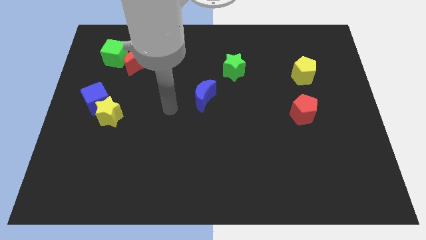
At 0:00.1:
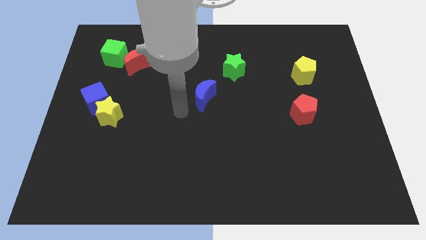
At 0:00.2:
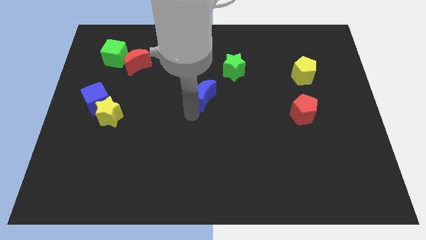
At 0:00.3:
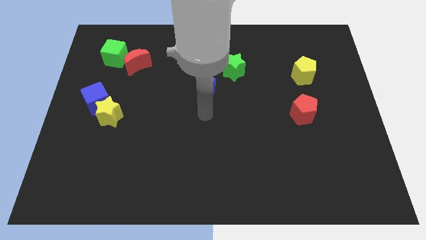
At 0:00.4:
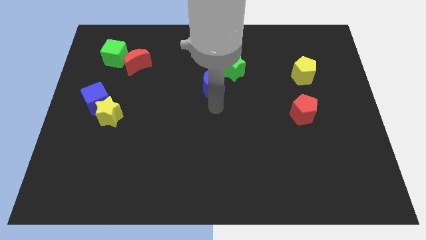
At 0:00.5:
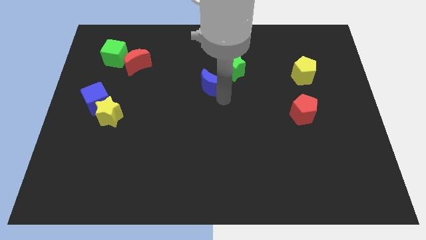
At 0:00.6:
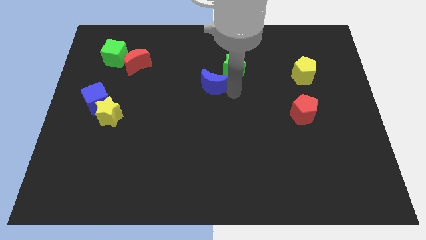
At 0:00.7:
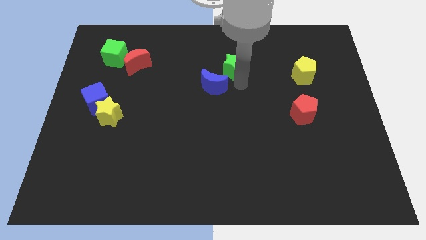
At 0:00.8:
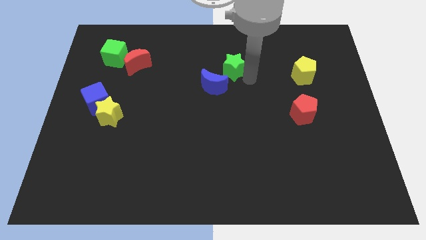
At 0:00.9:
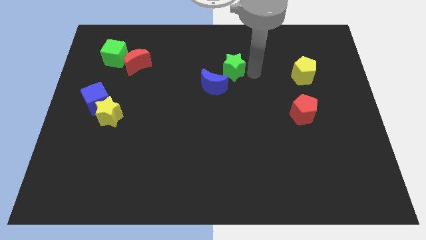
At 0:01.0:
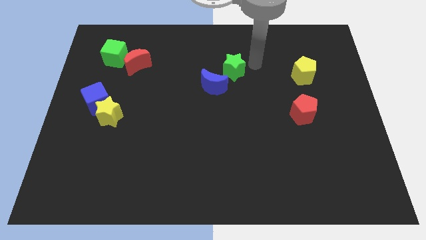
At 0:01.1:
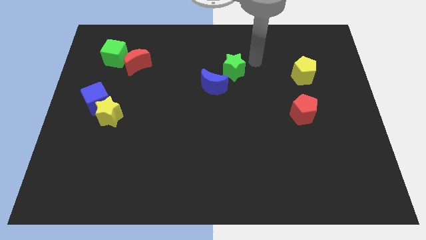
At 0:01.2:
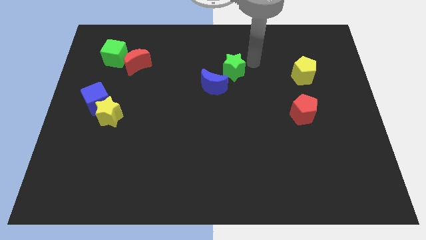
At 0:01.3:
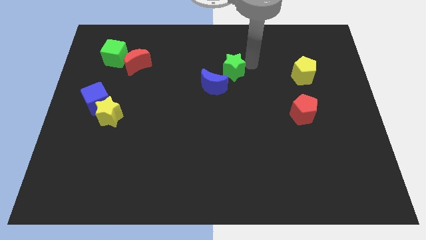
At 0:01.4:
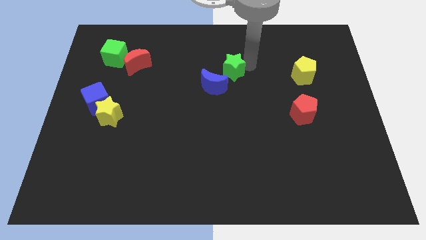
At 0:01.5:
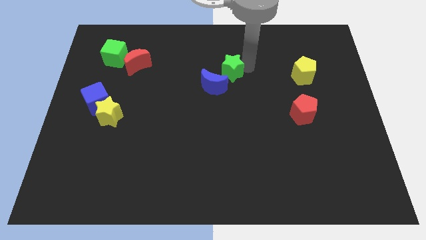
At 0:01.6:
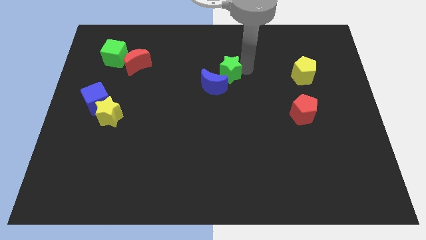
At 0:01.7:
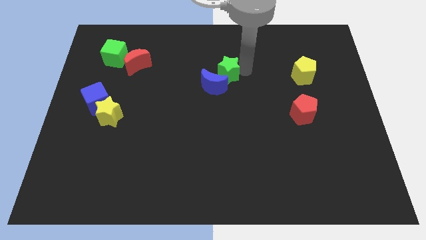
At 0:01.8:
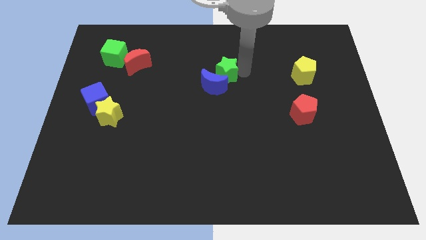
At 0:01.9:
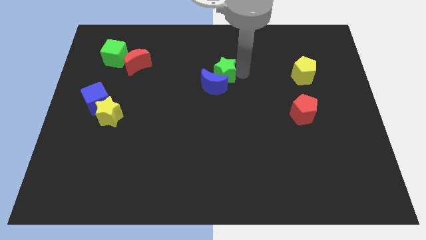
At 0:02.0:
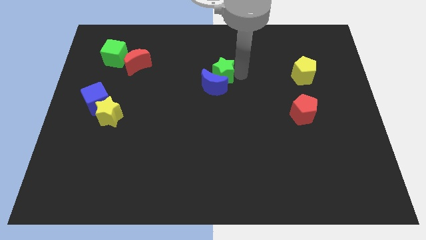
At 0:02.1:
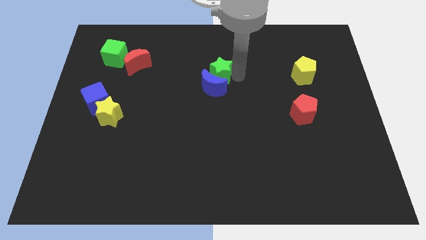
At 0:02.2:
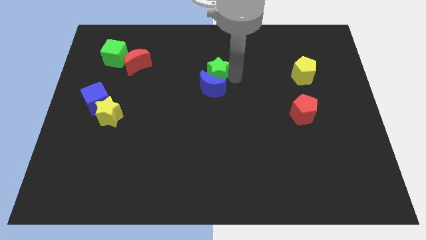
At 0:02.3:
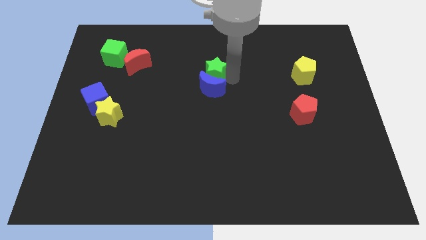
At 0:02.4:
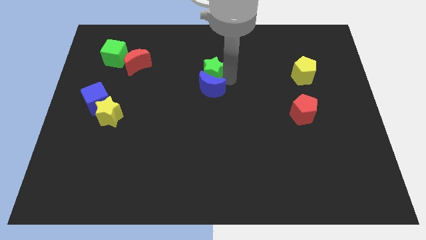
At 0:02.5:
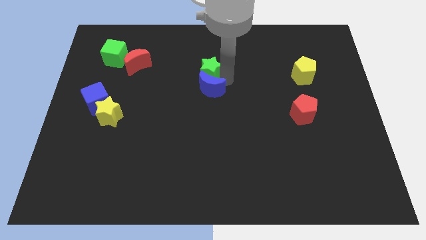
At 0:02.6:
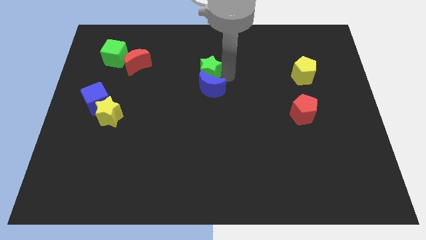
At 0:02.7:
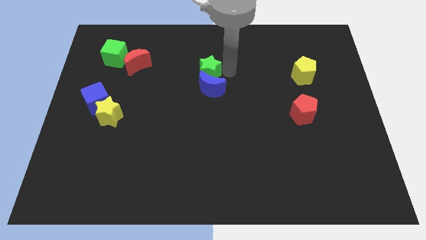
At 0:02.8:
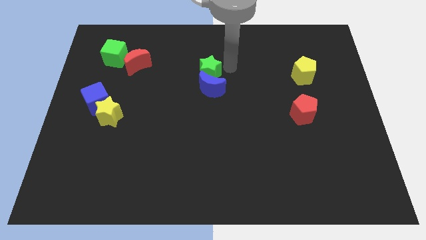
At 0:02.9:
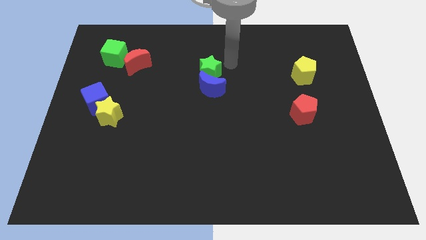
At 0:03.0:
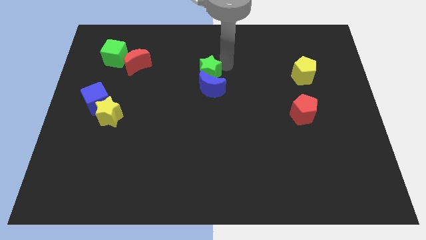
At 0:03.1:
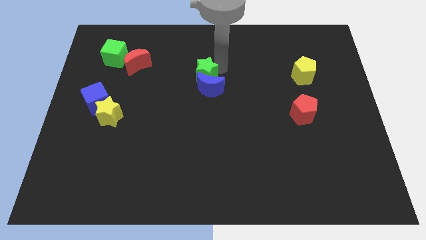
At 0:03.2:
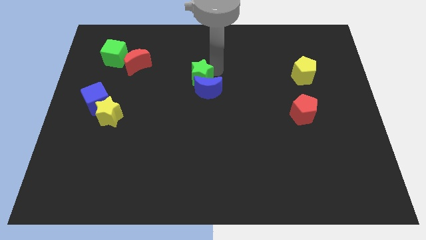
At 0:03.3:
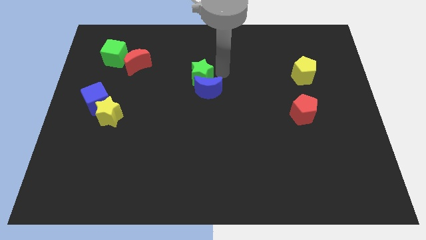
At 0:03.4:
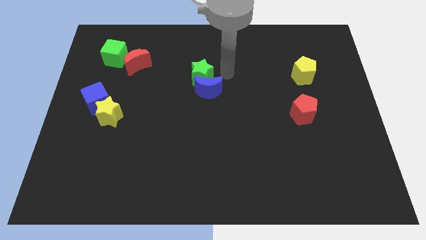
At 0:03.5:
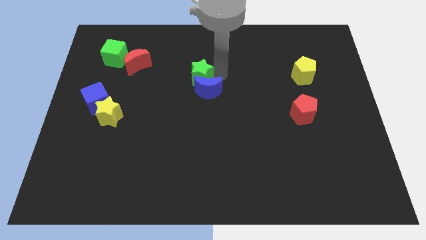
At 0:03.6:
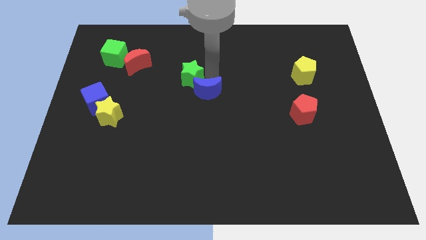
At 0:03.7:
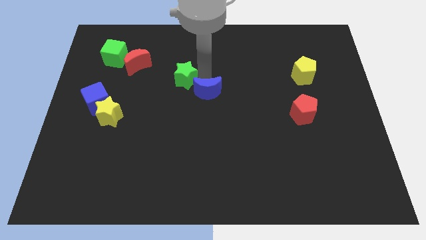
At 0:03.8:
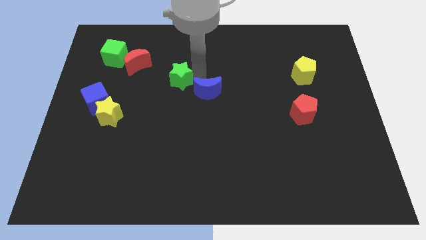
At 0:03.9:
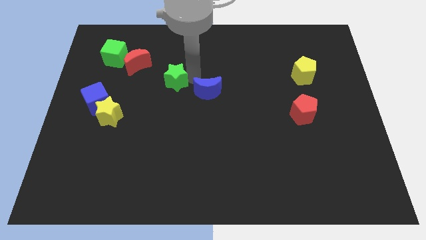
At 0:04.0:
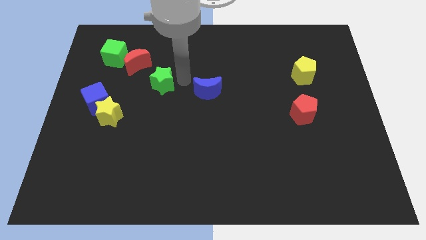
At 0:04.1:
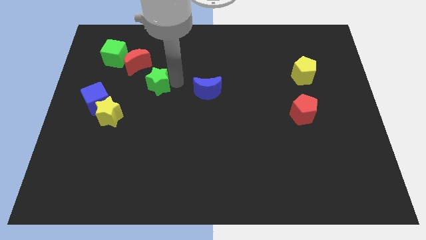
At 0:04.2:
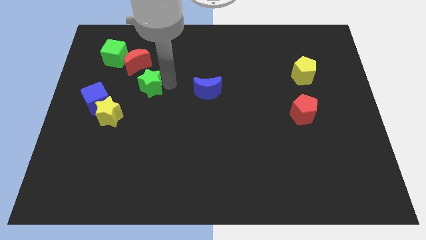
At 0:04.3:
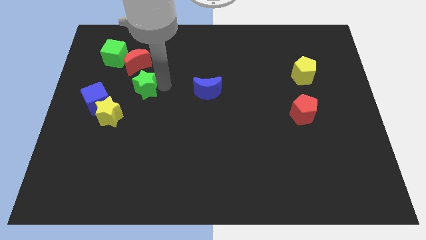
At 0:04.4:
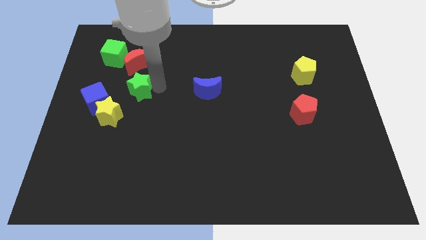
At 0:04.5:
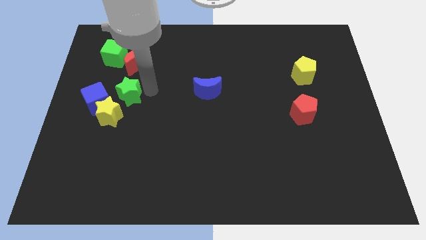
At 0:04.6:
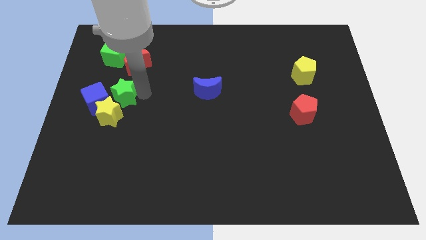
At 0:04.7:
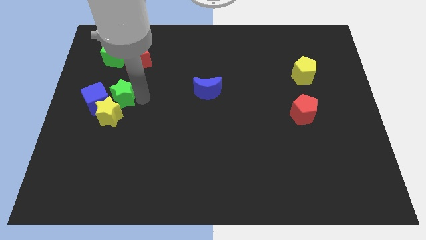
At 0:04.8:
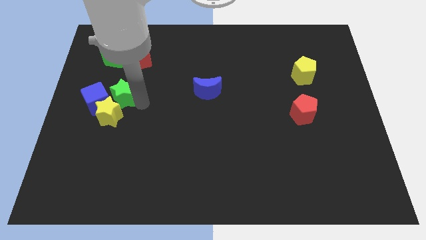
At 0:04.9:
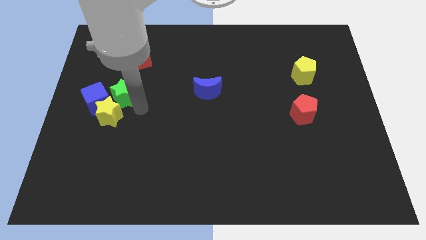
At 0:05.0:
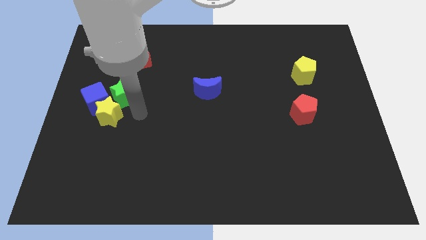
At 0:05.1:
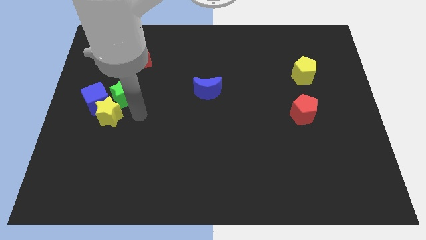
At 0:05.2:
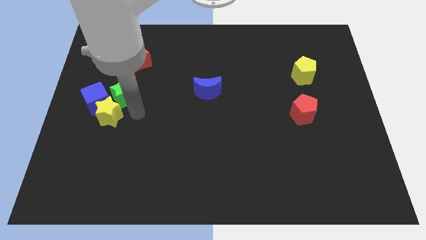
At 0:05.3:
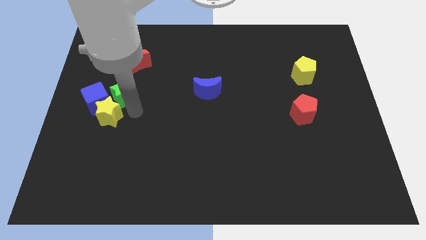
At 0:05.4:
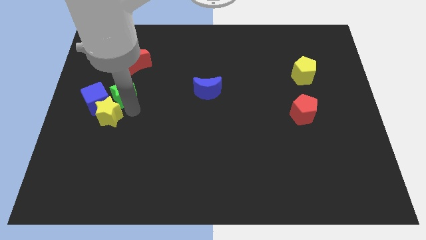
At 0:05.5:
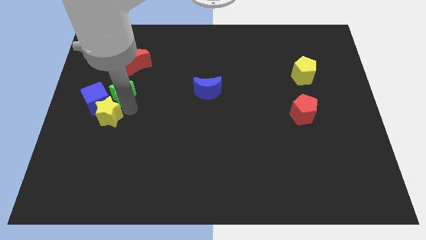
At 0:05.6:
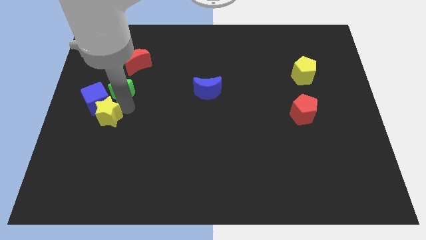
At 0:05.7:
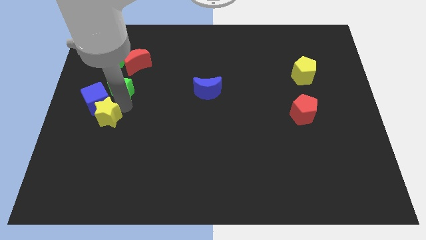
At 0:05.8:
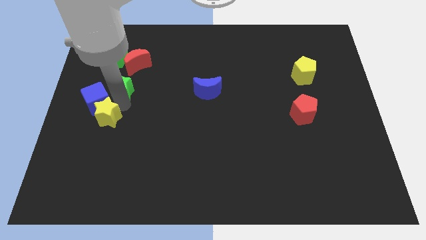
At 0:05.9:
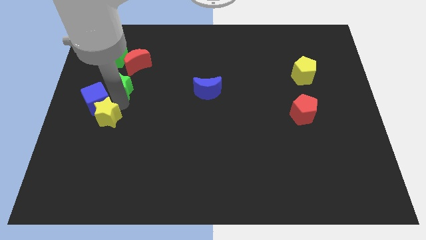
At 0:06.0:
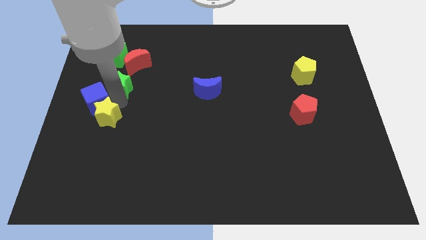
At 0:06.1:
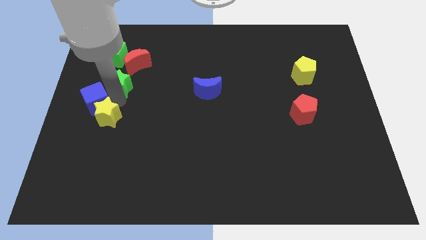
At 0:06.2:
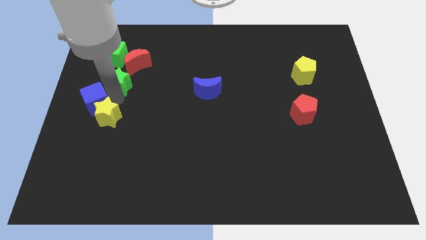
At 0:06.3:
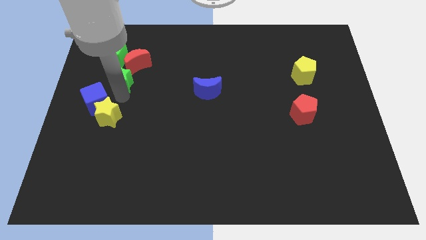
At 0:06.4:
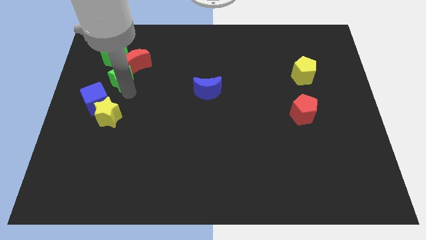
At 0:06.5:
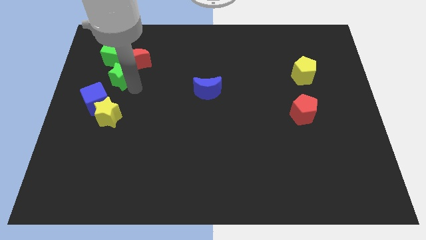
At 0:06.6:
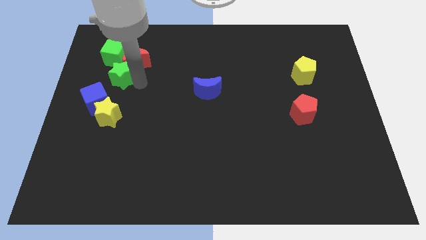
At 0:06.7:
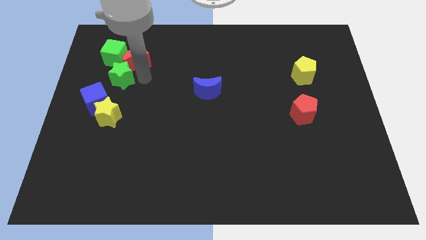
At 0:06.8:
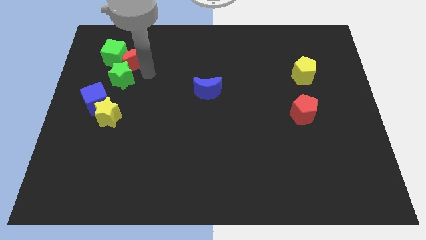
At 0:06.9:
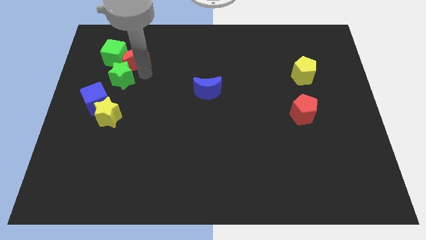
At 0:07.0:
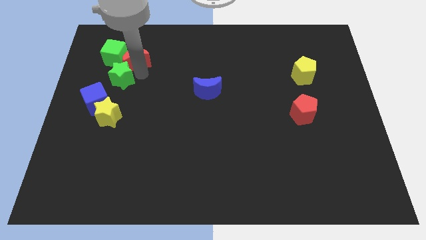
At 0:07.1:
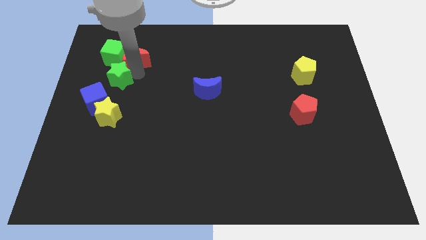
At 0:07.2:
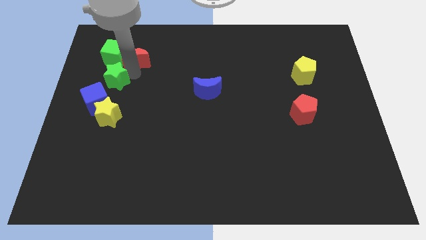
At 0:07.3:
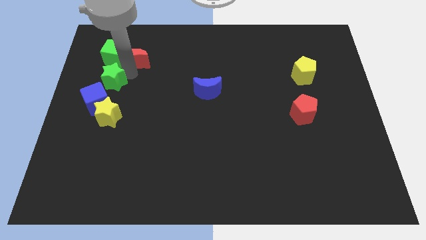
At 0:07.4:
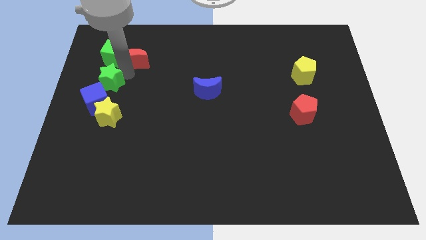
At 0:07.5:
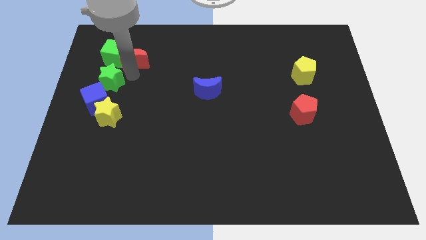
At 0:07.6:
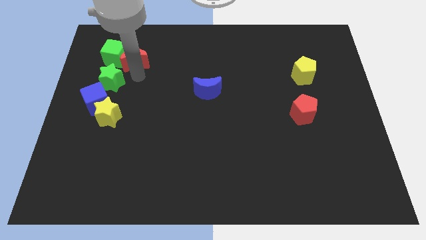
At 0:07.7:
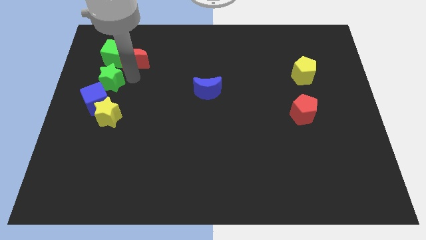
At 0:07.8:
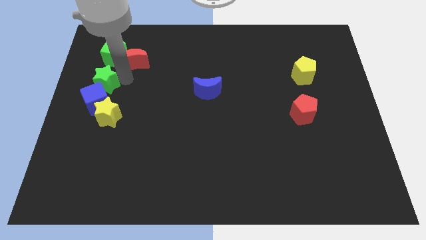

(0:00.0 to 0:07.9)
move the green star to the left side

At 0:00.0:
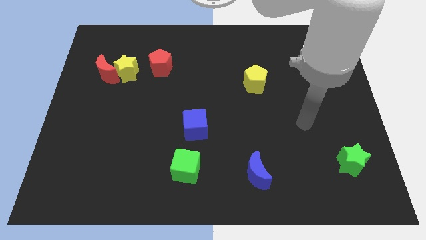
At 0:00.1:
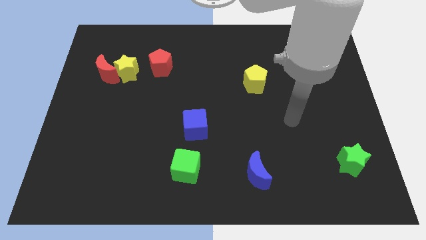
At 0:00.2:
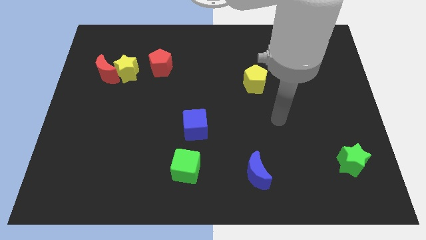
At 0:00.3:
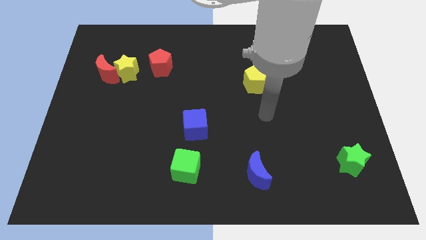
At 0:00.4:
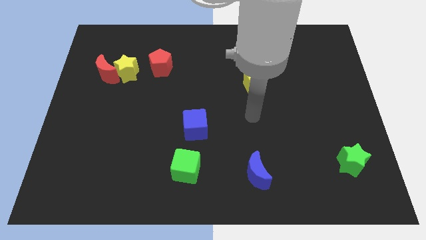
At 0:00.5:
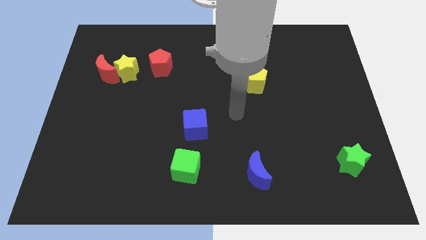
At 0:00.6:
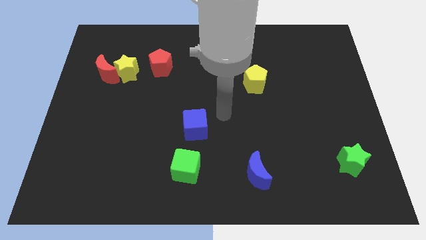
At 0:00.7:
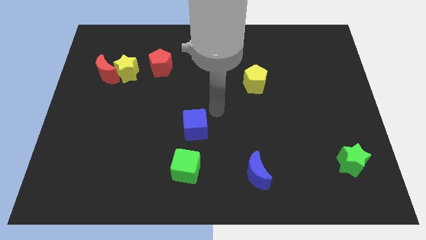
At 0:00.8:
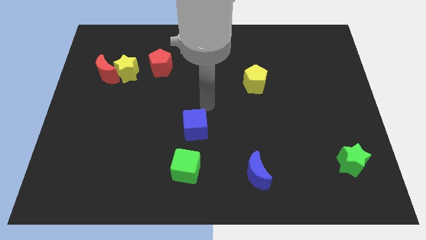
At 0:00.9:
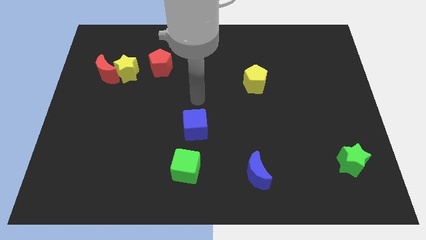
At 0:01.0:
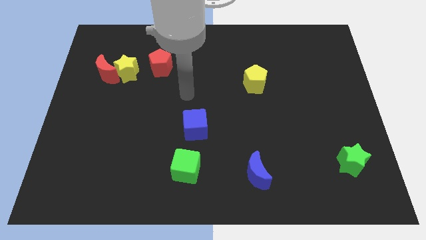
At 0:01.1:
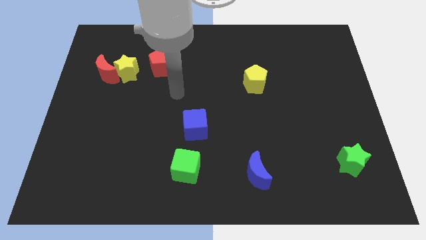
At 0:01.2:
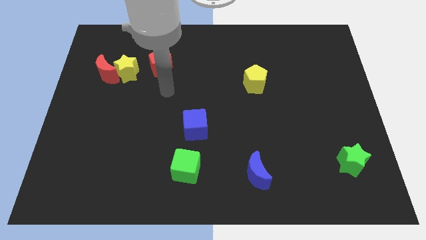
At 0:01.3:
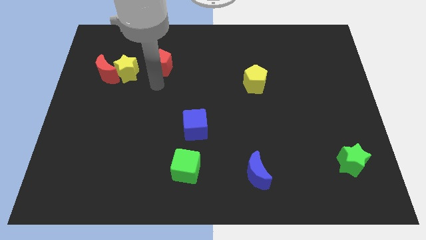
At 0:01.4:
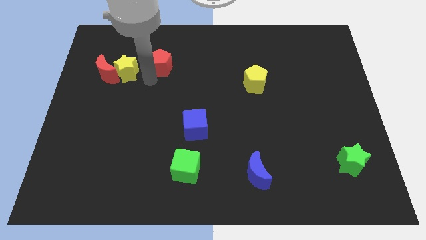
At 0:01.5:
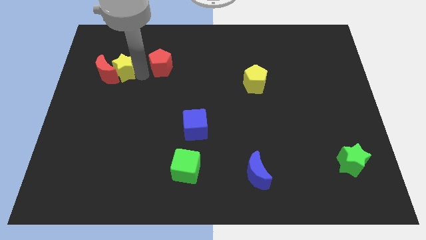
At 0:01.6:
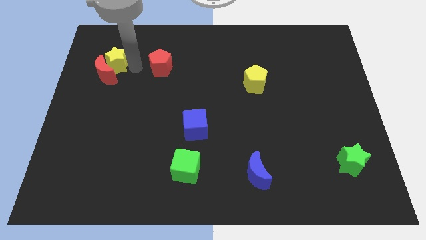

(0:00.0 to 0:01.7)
move the red moon to the left side
